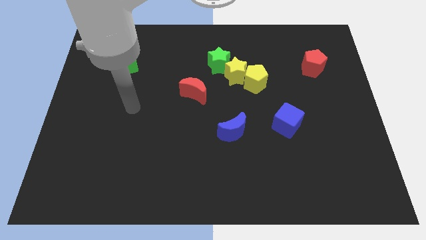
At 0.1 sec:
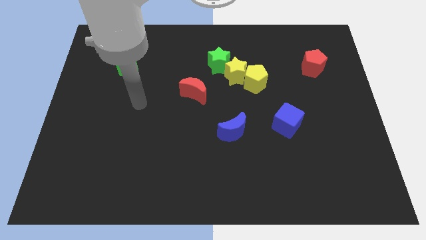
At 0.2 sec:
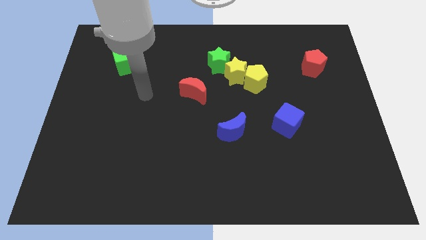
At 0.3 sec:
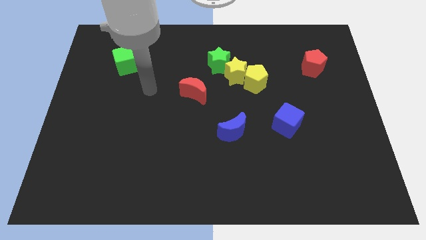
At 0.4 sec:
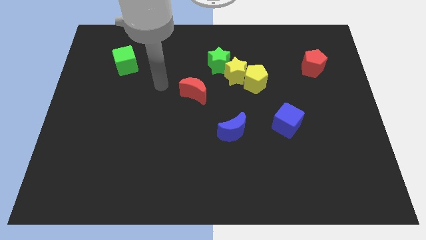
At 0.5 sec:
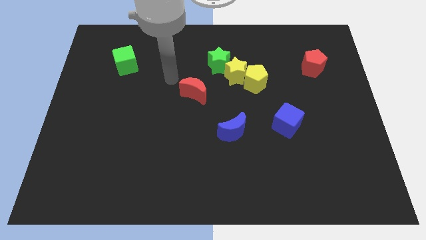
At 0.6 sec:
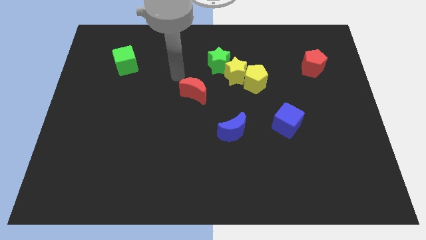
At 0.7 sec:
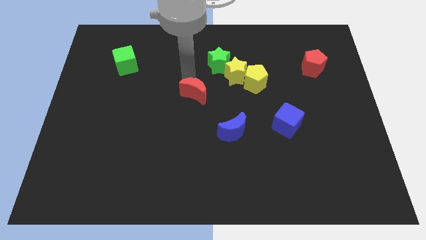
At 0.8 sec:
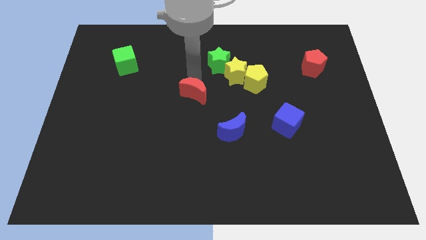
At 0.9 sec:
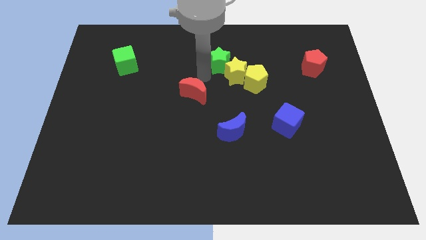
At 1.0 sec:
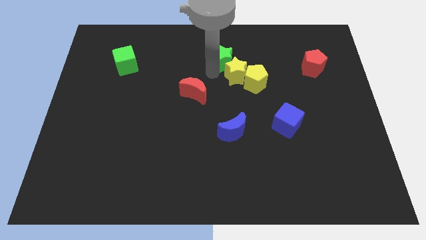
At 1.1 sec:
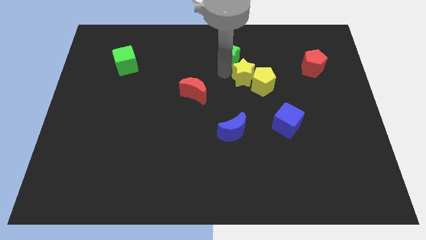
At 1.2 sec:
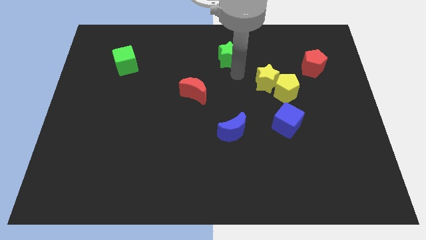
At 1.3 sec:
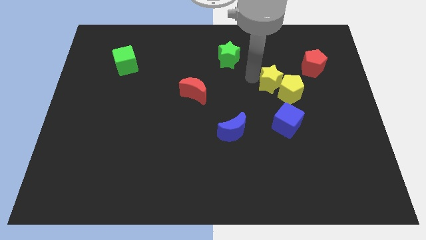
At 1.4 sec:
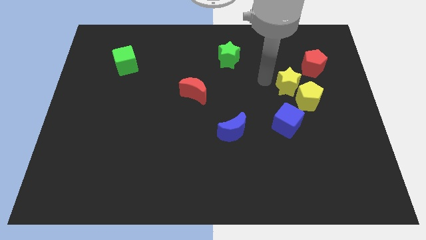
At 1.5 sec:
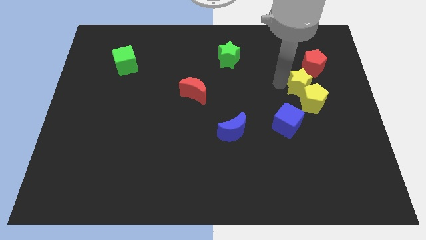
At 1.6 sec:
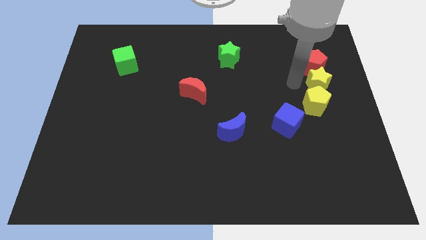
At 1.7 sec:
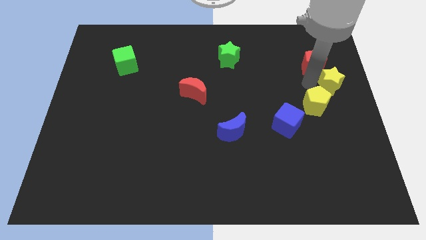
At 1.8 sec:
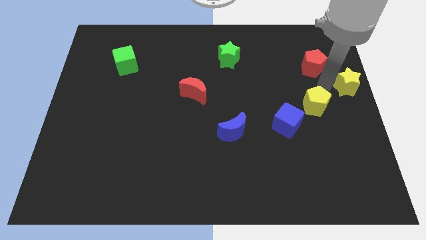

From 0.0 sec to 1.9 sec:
separate the yellow pentagon from the yellow star

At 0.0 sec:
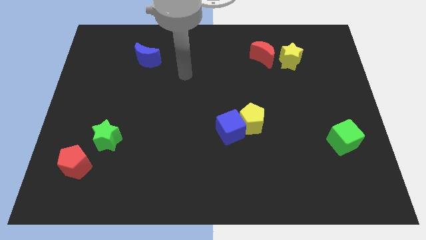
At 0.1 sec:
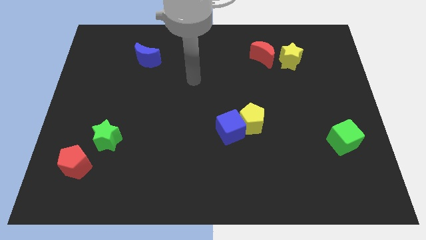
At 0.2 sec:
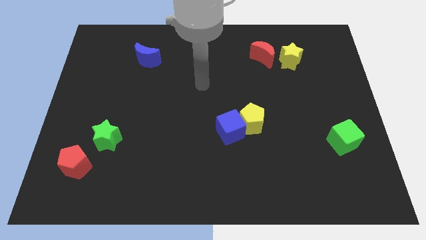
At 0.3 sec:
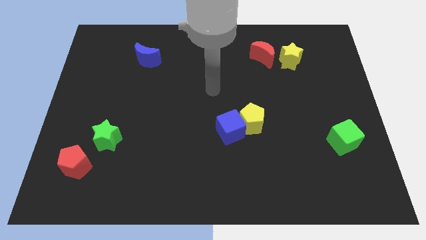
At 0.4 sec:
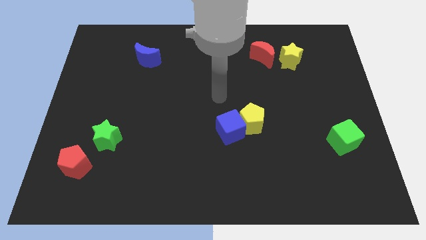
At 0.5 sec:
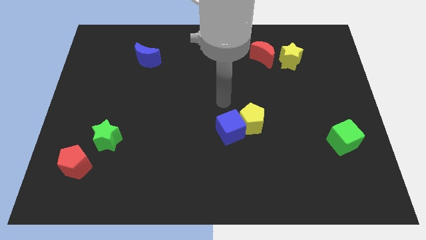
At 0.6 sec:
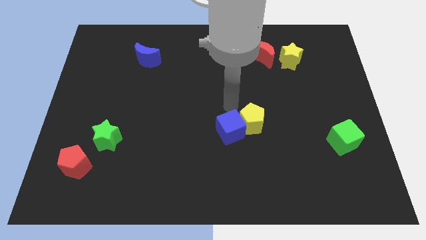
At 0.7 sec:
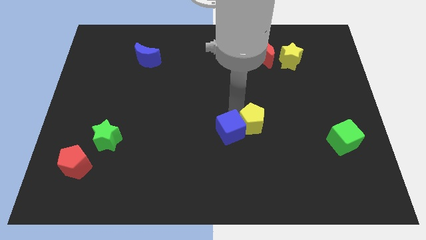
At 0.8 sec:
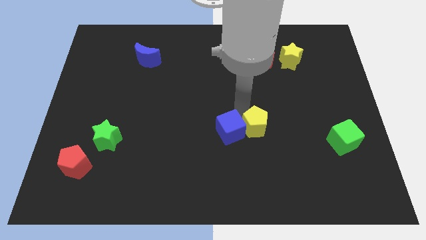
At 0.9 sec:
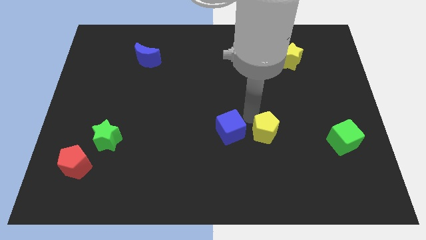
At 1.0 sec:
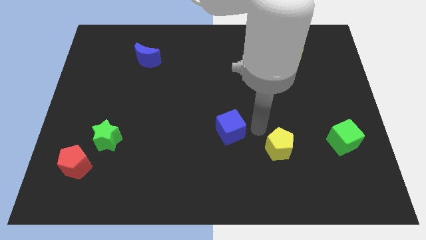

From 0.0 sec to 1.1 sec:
separate the blue cube from the yellow pentagon

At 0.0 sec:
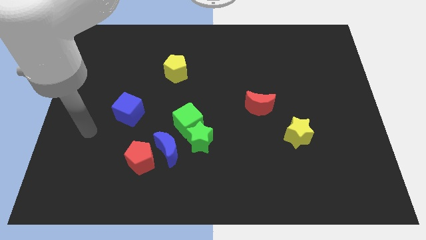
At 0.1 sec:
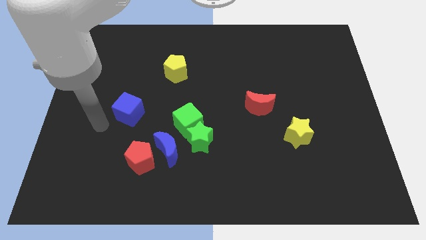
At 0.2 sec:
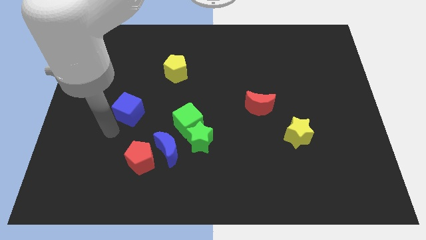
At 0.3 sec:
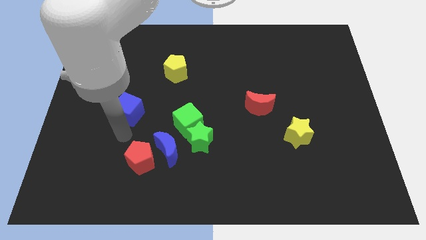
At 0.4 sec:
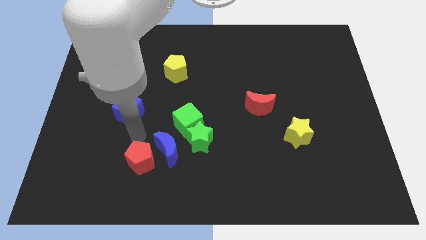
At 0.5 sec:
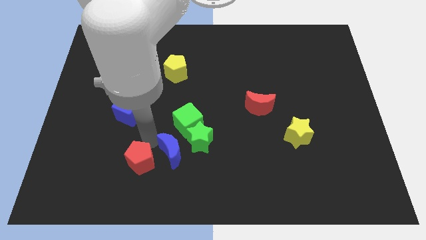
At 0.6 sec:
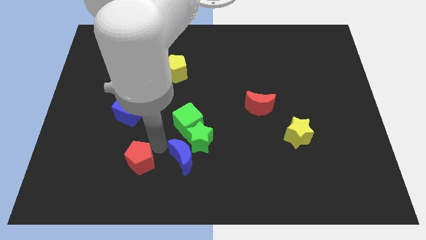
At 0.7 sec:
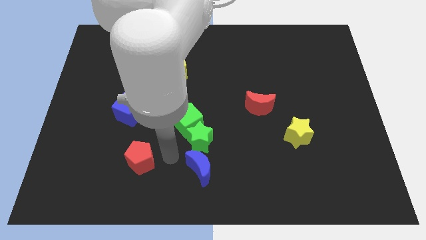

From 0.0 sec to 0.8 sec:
move the red pentagon away from the blue moon

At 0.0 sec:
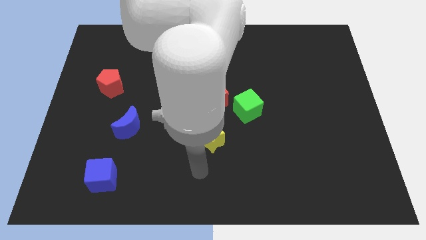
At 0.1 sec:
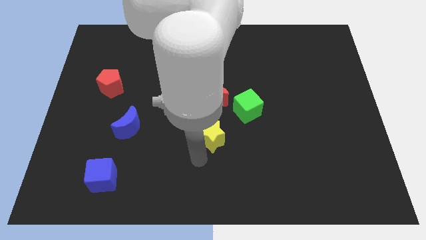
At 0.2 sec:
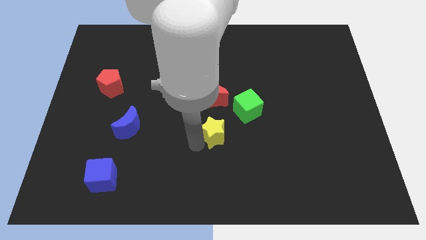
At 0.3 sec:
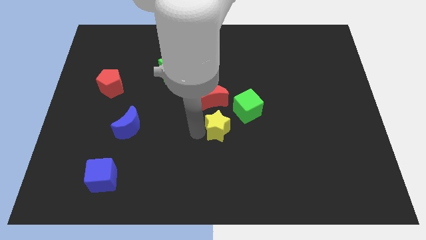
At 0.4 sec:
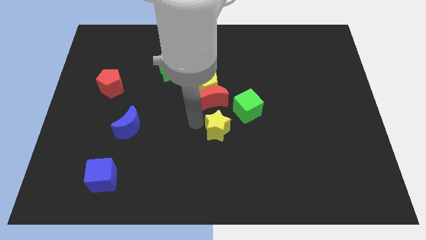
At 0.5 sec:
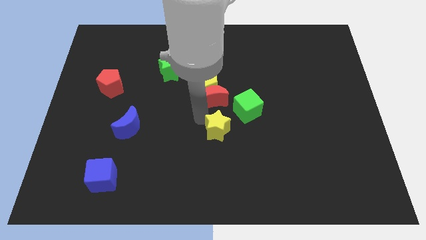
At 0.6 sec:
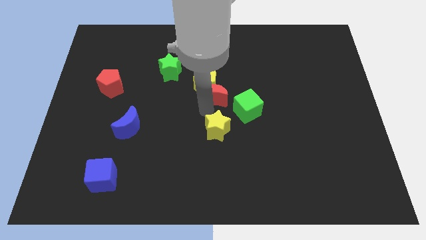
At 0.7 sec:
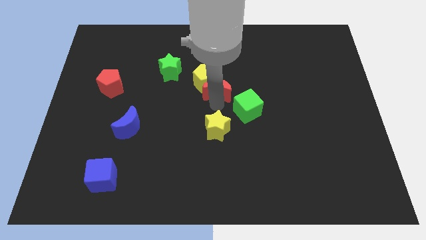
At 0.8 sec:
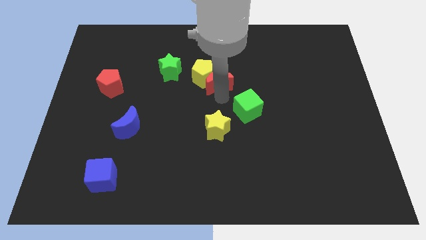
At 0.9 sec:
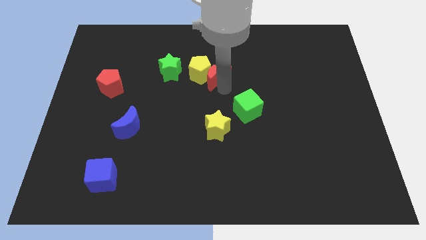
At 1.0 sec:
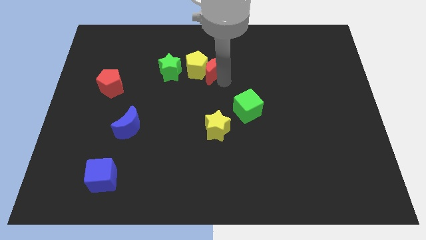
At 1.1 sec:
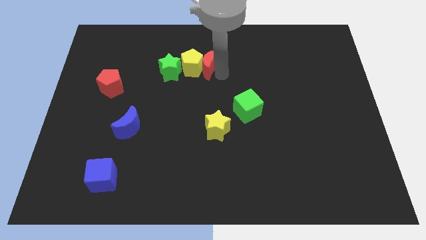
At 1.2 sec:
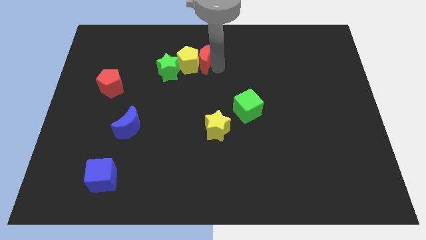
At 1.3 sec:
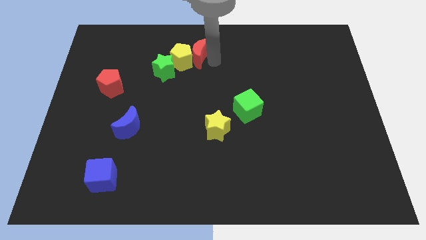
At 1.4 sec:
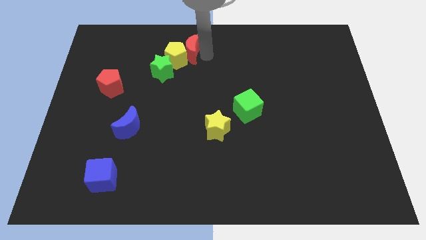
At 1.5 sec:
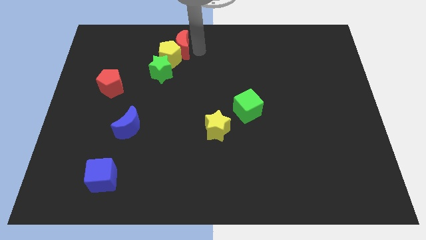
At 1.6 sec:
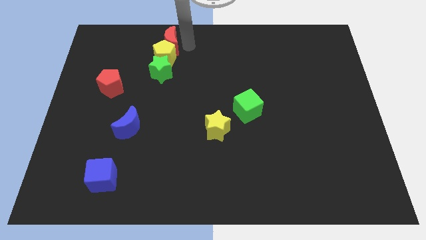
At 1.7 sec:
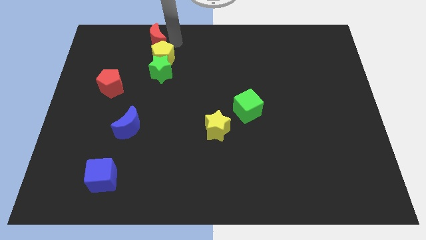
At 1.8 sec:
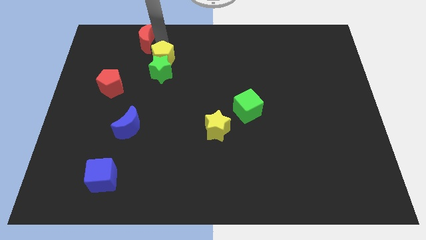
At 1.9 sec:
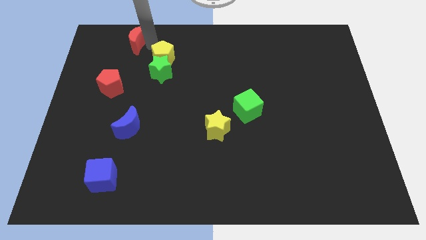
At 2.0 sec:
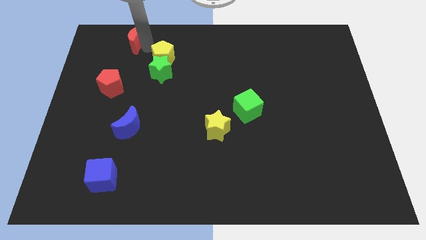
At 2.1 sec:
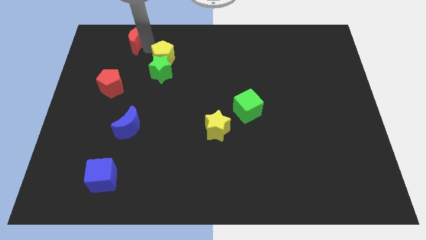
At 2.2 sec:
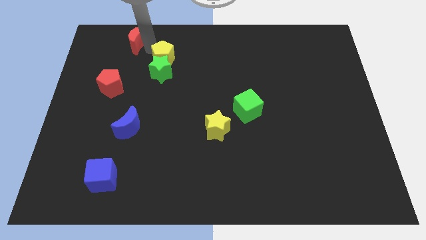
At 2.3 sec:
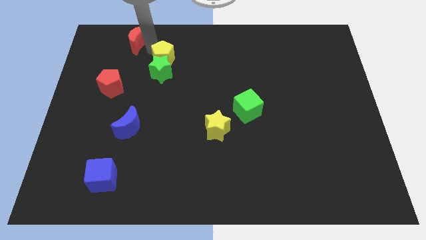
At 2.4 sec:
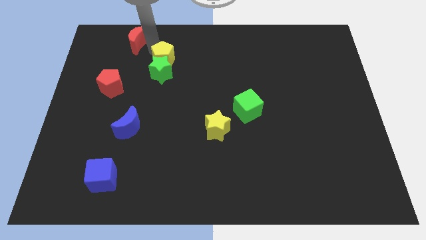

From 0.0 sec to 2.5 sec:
pull the yellow pentagon apart from the red moon

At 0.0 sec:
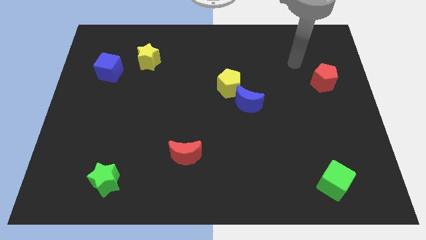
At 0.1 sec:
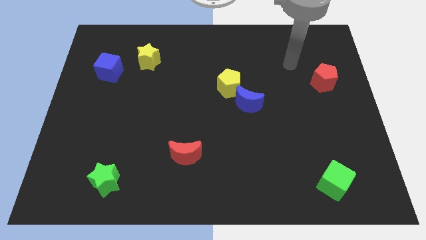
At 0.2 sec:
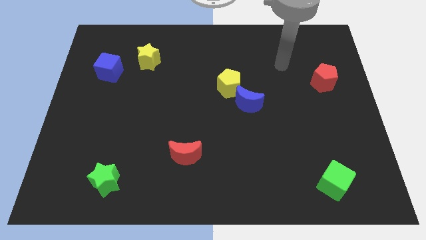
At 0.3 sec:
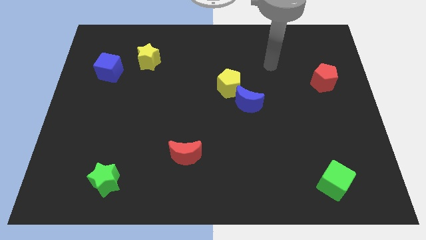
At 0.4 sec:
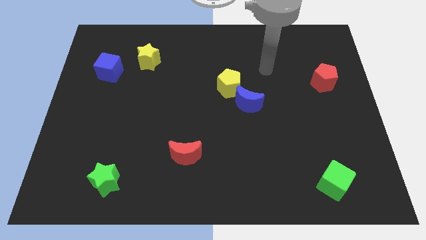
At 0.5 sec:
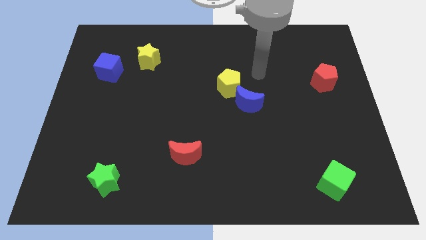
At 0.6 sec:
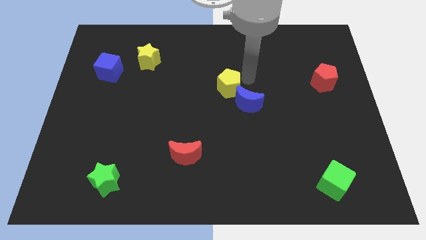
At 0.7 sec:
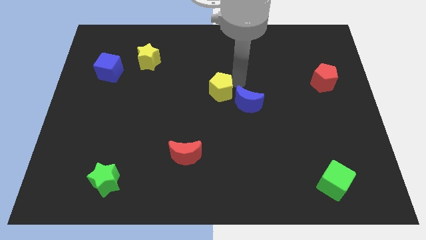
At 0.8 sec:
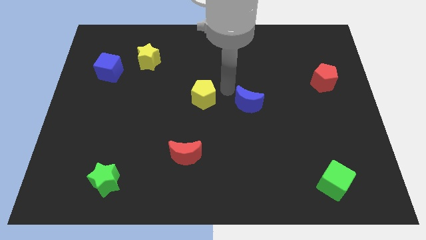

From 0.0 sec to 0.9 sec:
pull the blue moon apart from the yellow pentagon

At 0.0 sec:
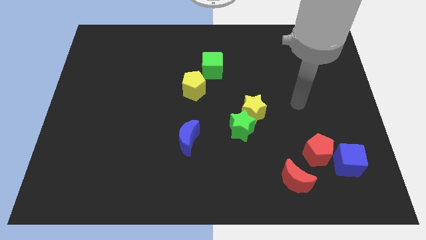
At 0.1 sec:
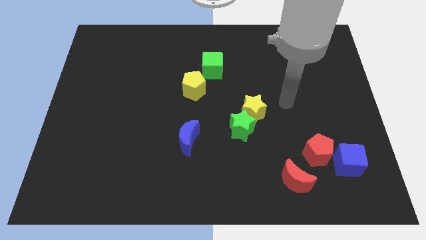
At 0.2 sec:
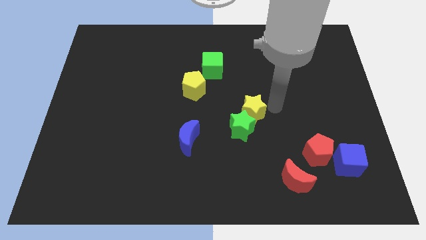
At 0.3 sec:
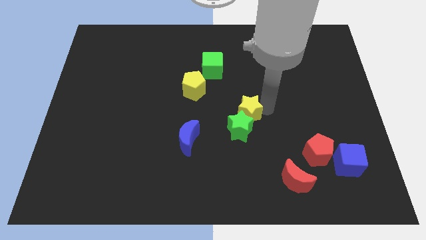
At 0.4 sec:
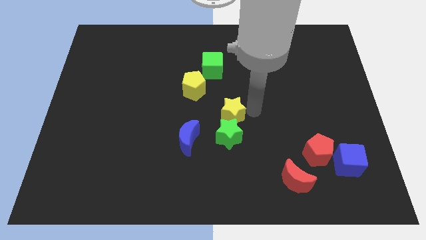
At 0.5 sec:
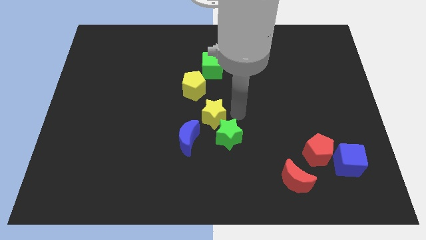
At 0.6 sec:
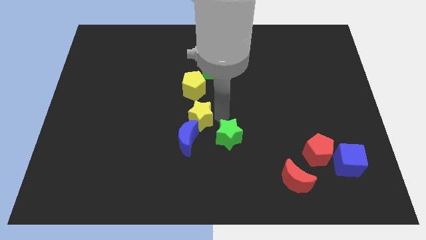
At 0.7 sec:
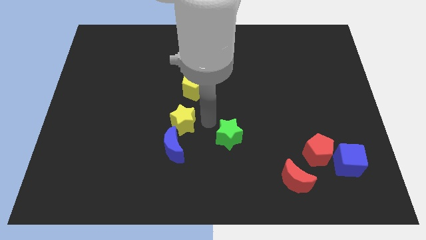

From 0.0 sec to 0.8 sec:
separate the green star from the yellow star

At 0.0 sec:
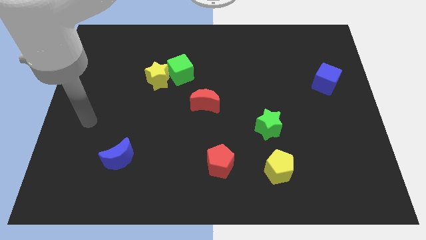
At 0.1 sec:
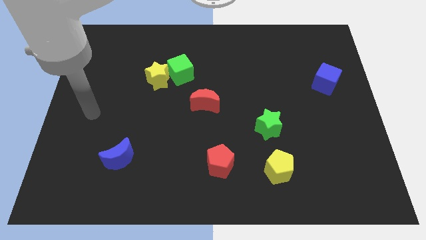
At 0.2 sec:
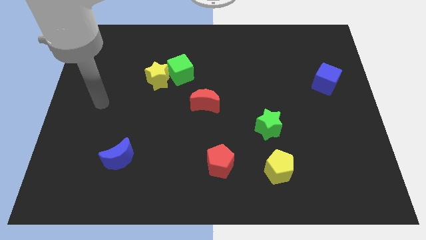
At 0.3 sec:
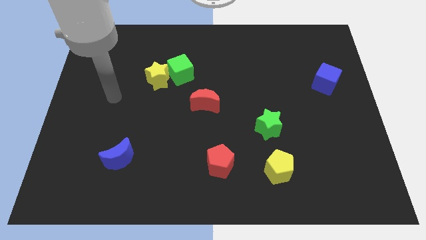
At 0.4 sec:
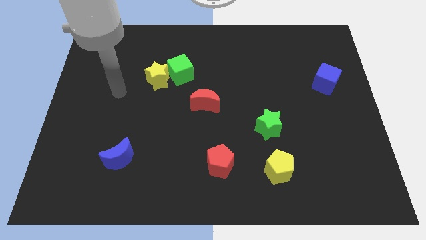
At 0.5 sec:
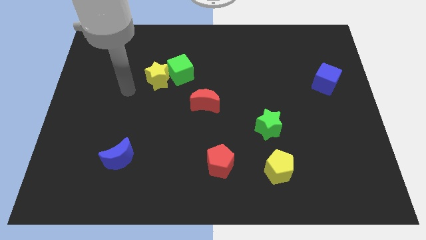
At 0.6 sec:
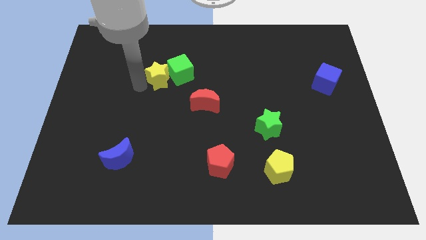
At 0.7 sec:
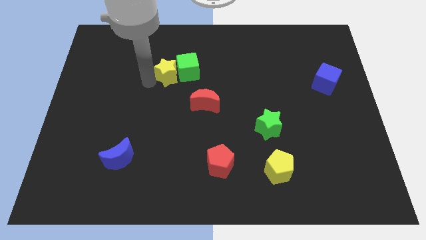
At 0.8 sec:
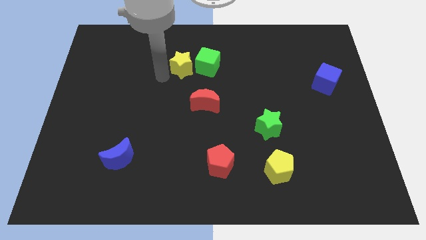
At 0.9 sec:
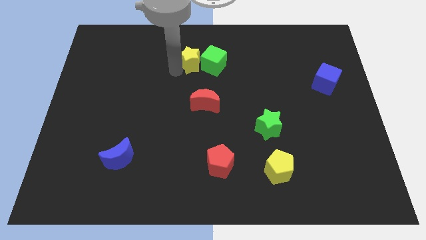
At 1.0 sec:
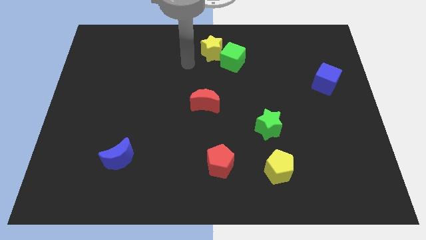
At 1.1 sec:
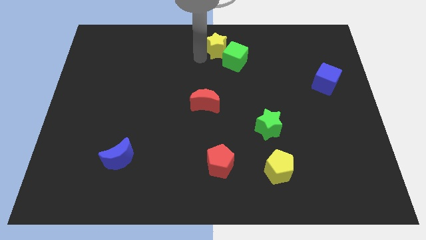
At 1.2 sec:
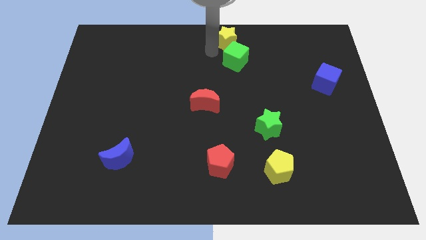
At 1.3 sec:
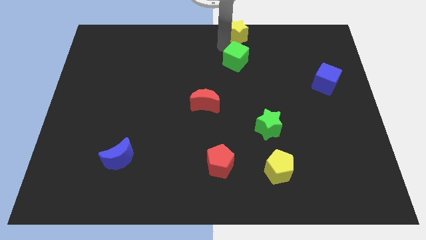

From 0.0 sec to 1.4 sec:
pull the green cube apart from the yellow star
